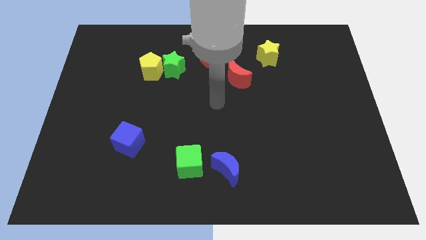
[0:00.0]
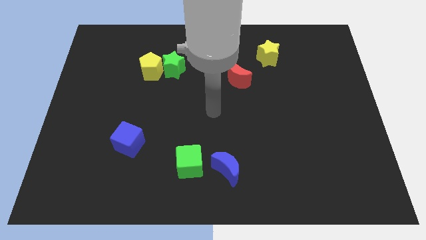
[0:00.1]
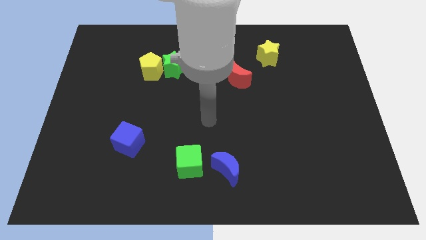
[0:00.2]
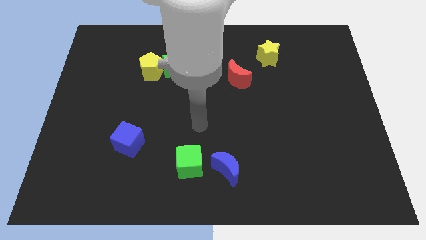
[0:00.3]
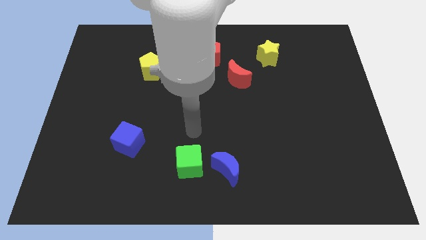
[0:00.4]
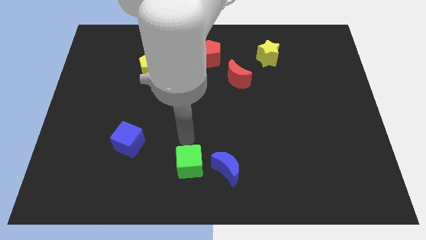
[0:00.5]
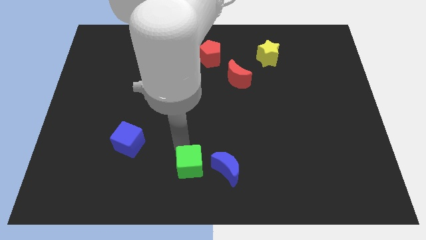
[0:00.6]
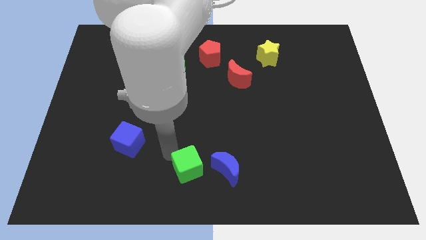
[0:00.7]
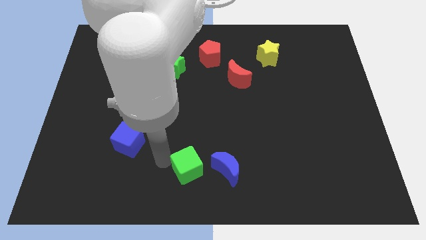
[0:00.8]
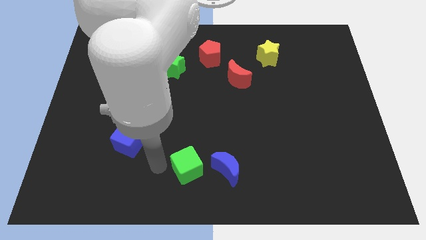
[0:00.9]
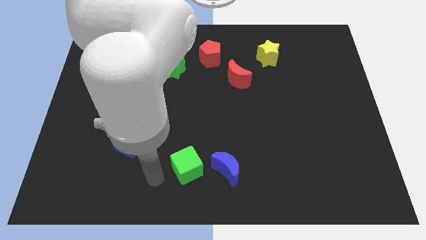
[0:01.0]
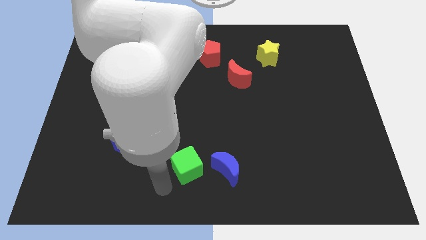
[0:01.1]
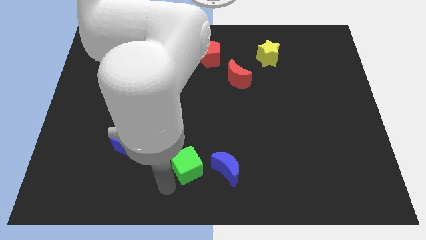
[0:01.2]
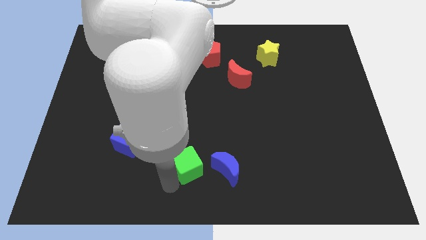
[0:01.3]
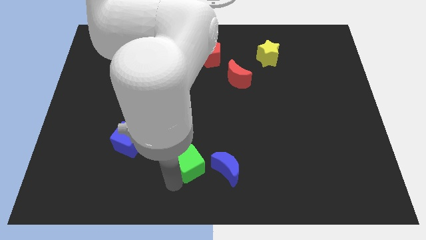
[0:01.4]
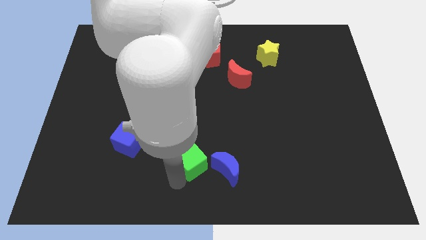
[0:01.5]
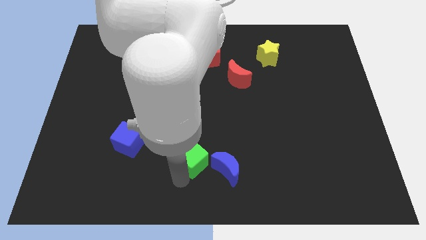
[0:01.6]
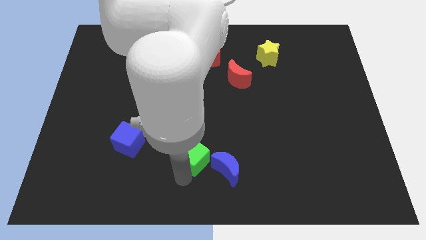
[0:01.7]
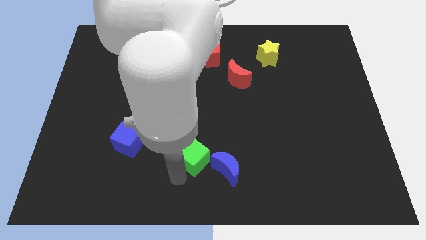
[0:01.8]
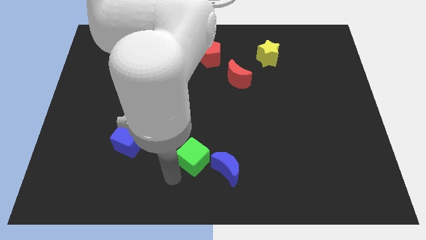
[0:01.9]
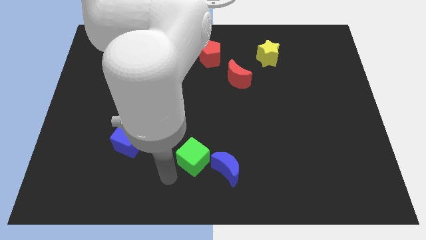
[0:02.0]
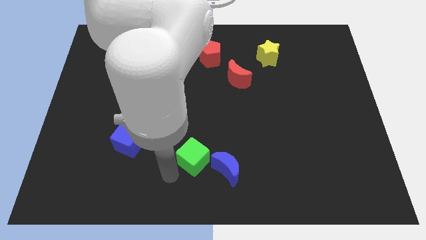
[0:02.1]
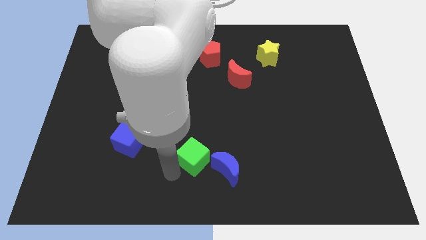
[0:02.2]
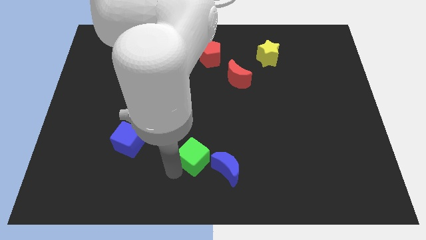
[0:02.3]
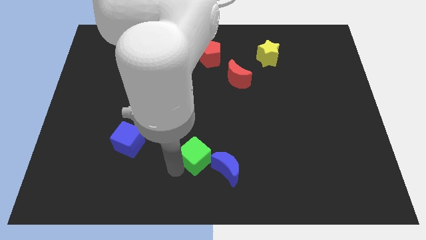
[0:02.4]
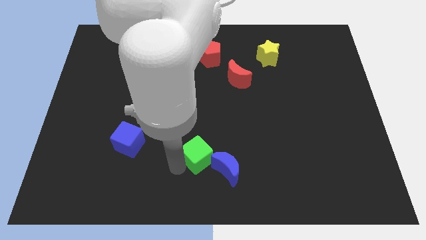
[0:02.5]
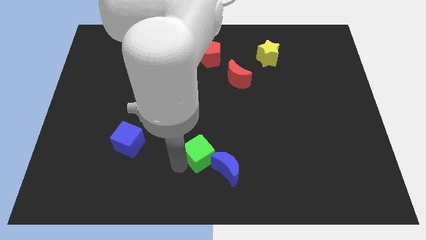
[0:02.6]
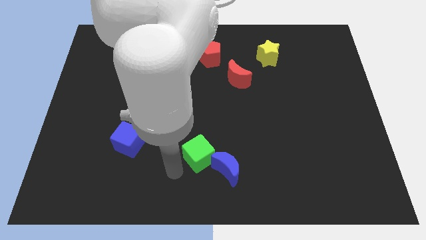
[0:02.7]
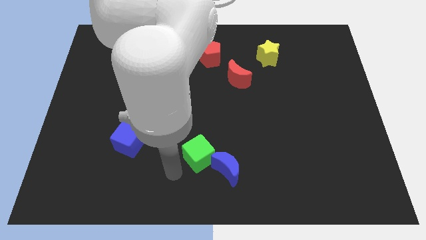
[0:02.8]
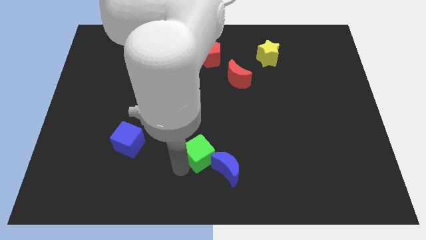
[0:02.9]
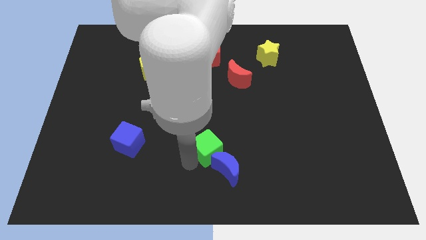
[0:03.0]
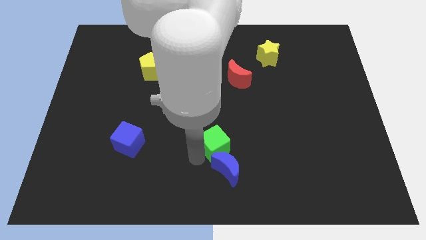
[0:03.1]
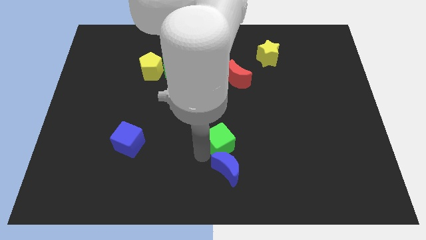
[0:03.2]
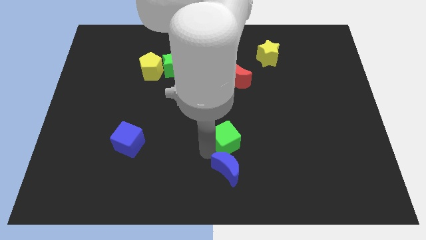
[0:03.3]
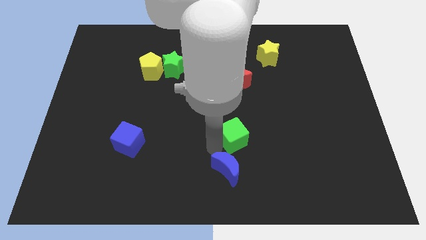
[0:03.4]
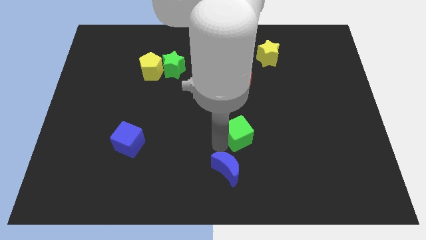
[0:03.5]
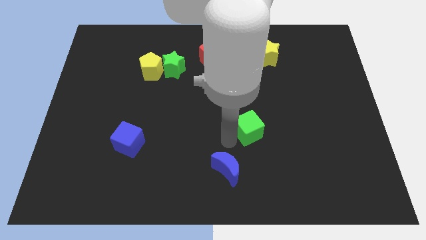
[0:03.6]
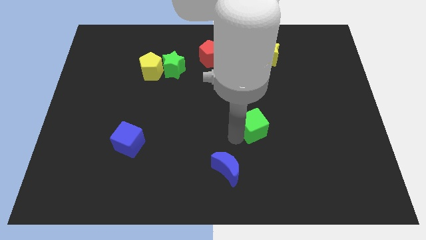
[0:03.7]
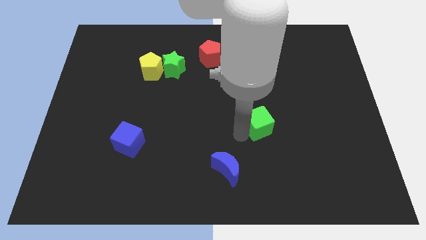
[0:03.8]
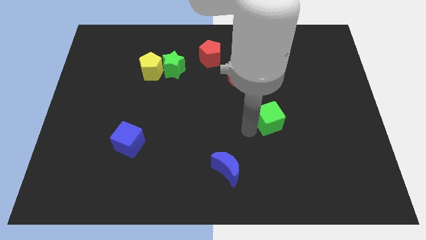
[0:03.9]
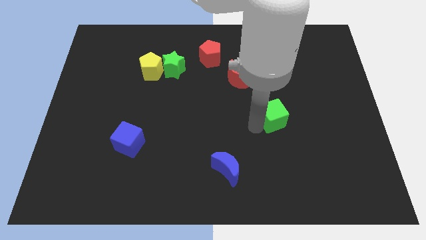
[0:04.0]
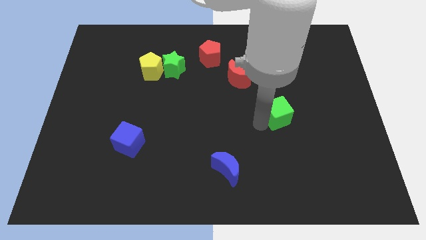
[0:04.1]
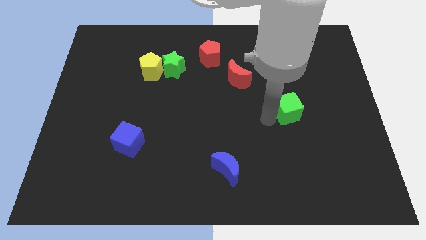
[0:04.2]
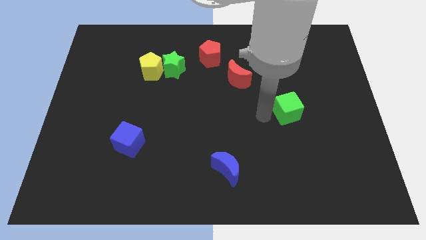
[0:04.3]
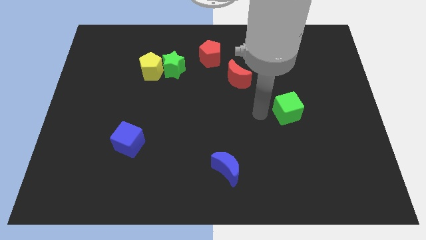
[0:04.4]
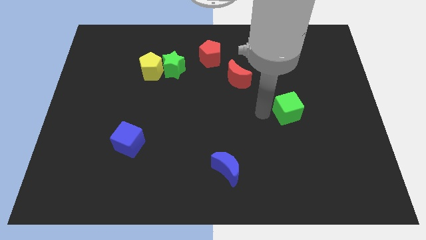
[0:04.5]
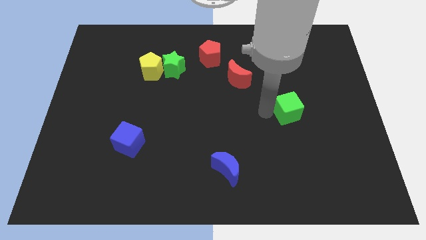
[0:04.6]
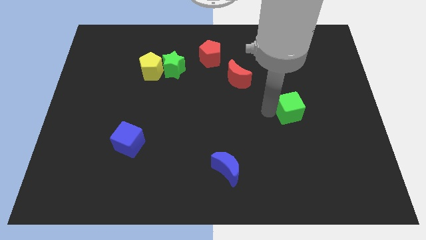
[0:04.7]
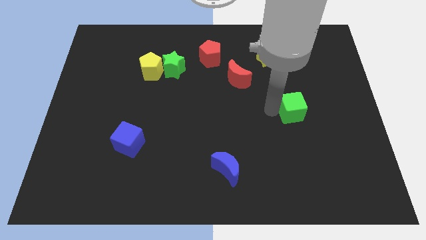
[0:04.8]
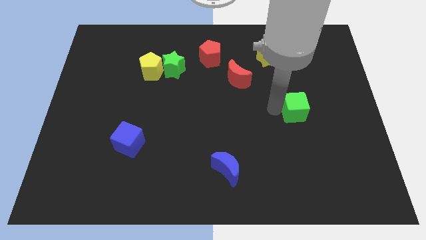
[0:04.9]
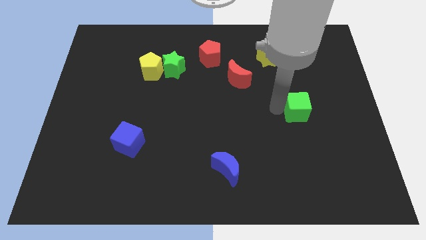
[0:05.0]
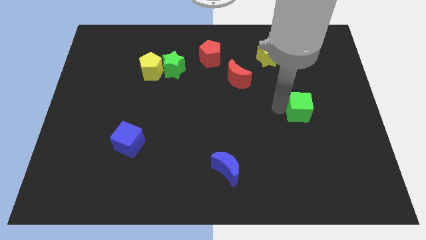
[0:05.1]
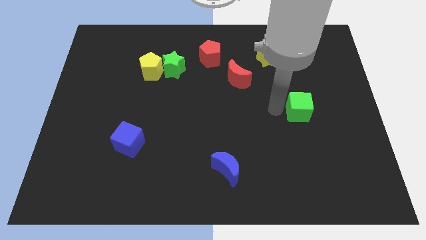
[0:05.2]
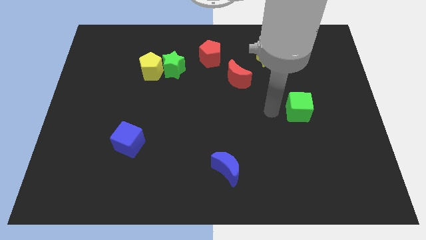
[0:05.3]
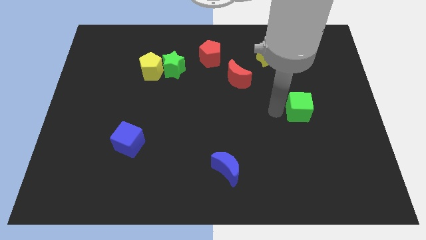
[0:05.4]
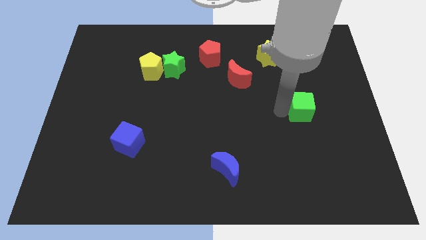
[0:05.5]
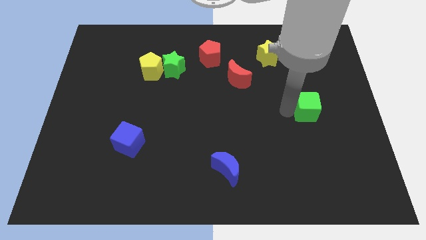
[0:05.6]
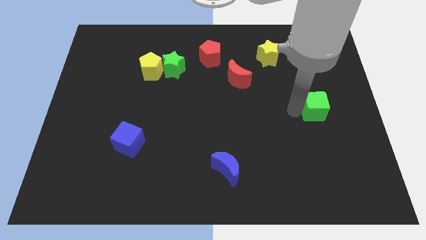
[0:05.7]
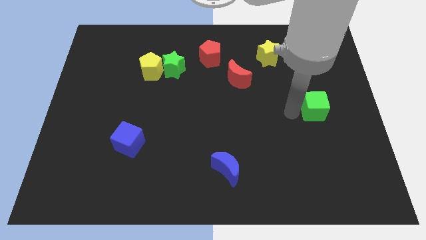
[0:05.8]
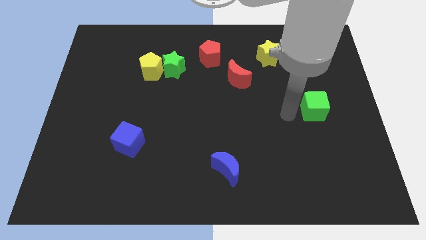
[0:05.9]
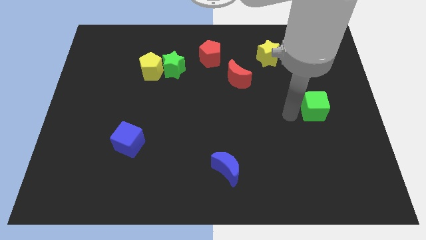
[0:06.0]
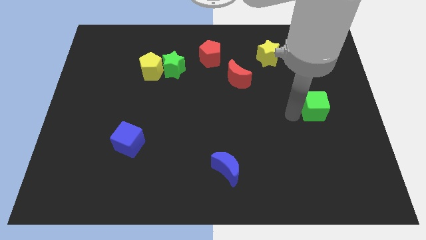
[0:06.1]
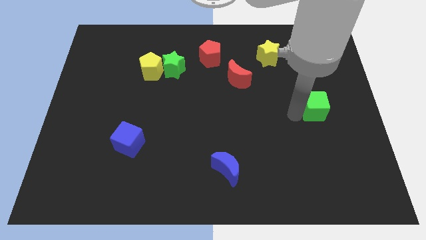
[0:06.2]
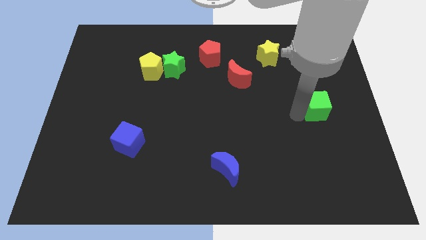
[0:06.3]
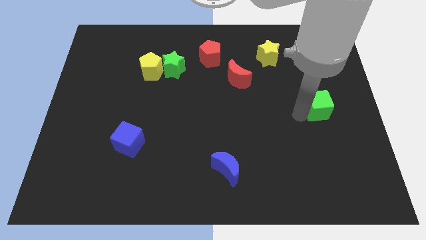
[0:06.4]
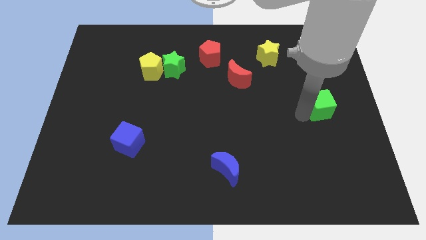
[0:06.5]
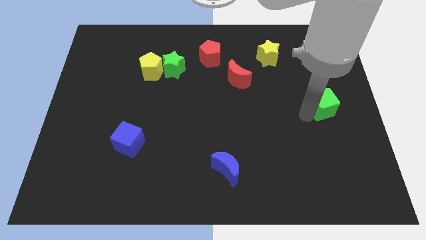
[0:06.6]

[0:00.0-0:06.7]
slide the green cube to the right side of the board
